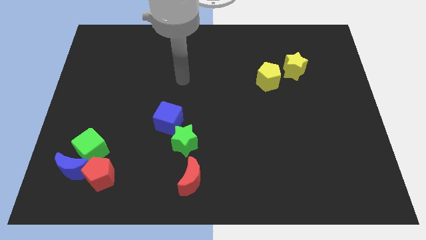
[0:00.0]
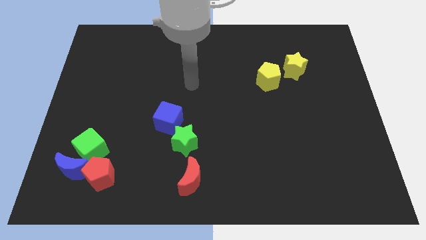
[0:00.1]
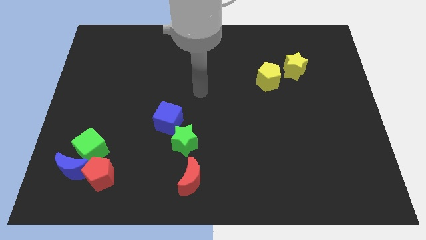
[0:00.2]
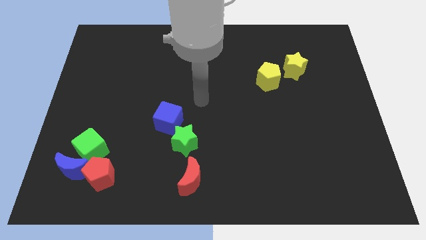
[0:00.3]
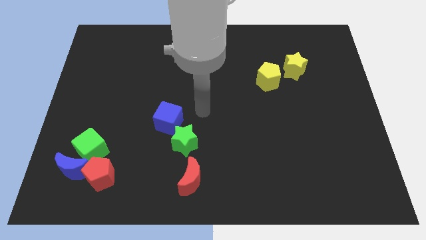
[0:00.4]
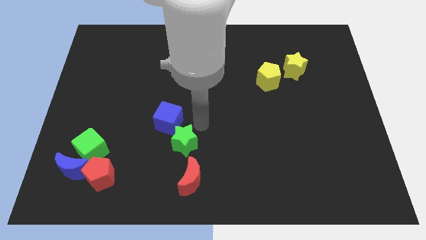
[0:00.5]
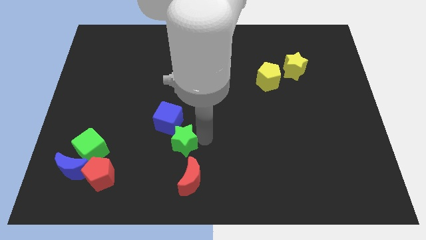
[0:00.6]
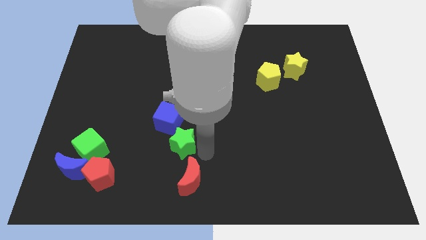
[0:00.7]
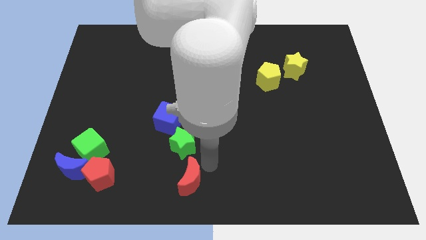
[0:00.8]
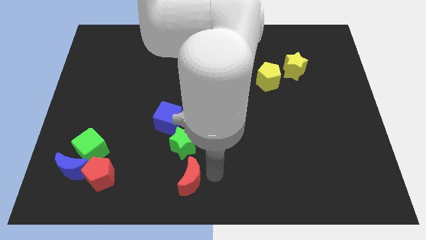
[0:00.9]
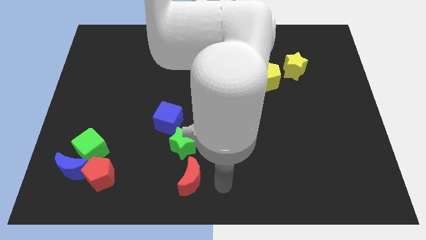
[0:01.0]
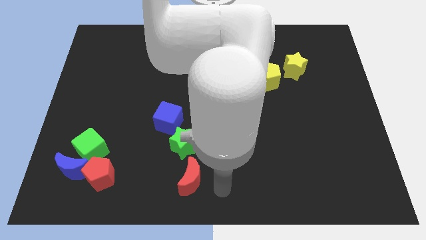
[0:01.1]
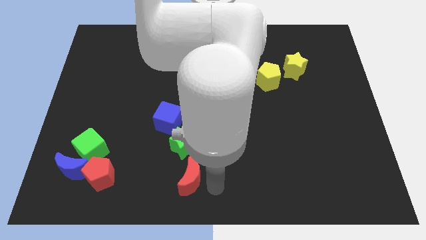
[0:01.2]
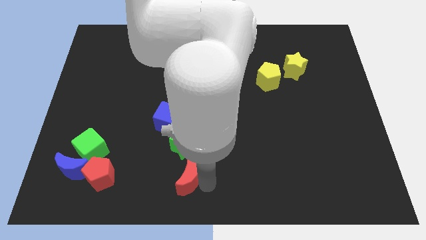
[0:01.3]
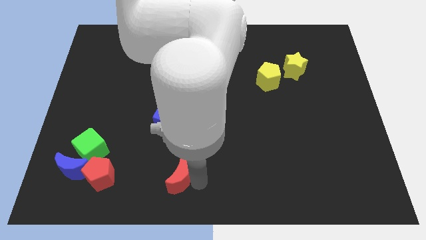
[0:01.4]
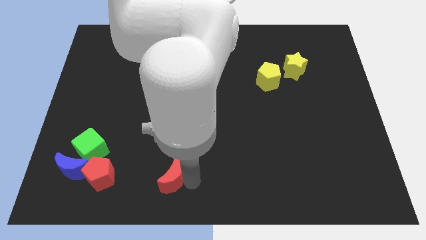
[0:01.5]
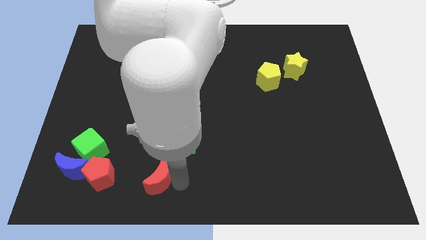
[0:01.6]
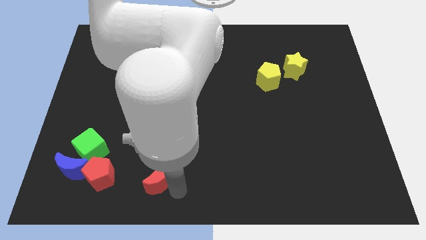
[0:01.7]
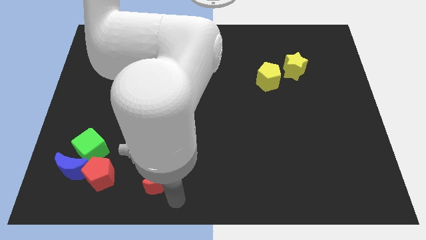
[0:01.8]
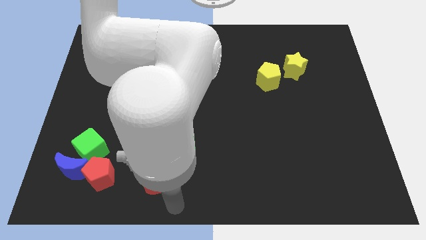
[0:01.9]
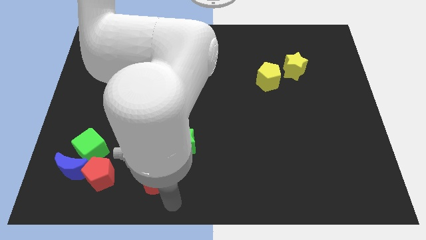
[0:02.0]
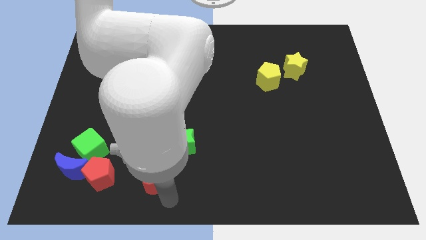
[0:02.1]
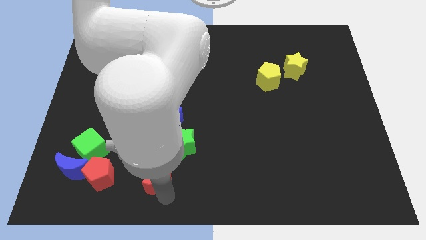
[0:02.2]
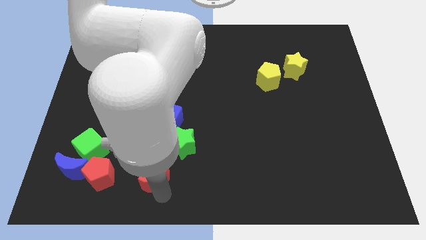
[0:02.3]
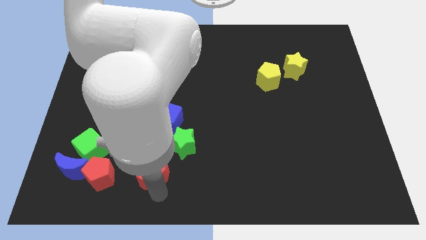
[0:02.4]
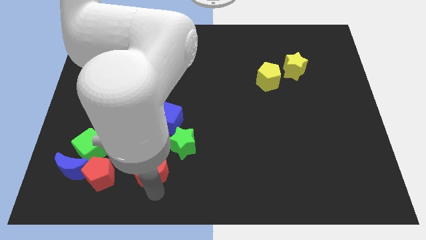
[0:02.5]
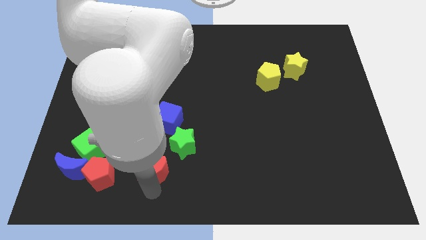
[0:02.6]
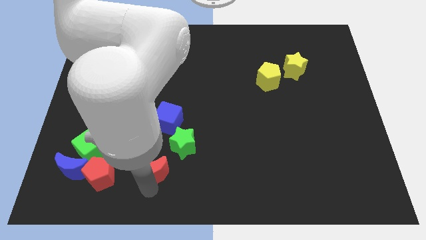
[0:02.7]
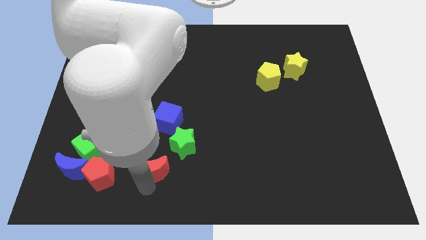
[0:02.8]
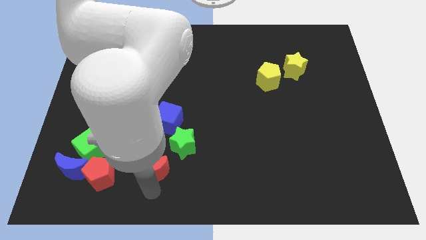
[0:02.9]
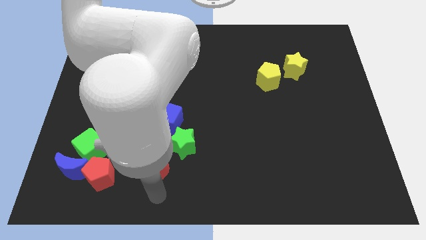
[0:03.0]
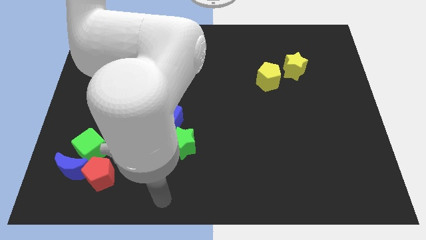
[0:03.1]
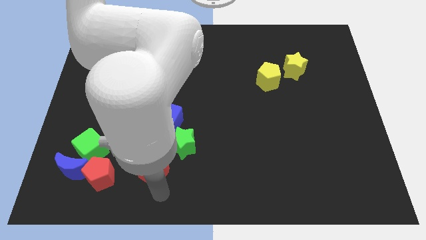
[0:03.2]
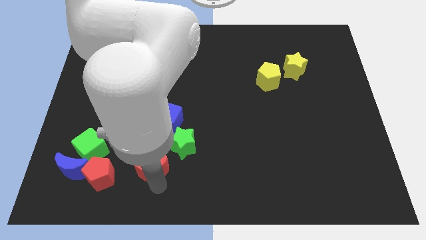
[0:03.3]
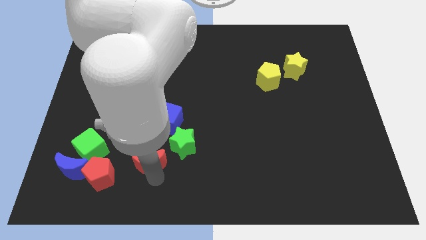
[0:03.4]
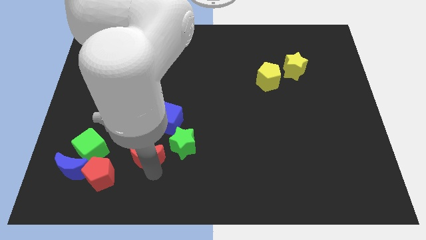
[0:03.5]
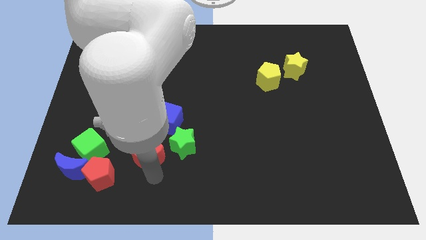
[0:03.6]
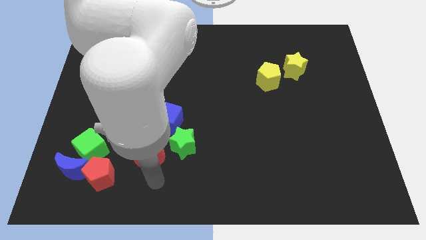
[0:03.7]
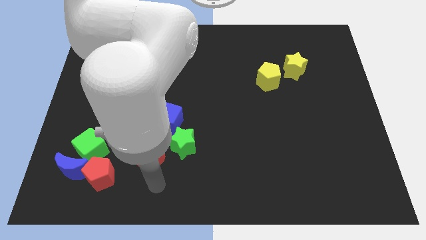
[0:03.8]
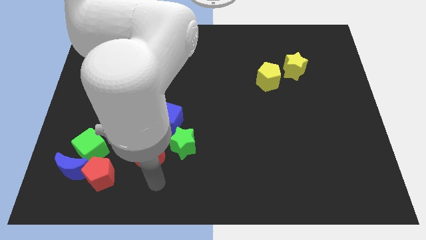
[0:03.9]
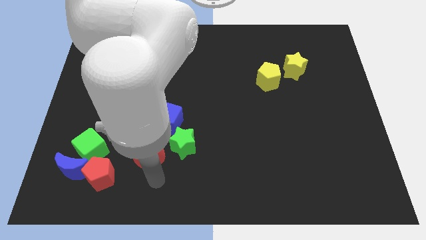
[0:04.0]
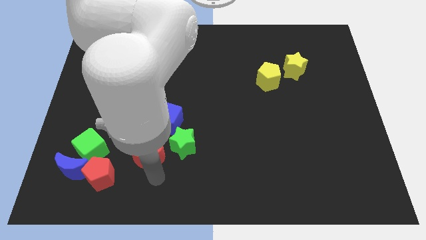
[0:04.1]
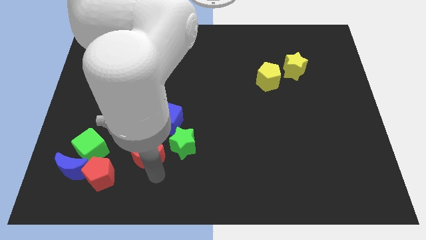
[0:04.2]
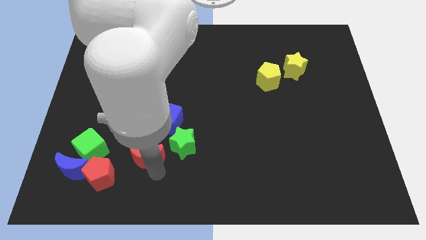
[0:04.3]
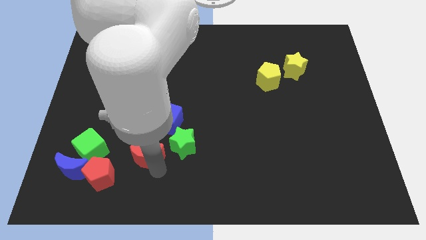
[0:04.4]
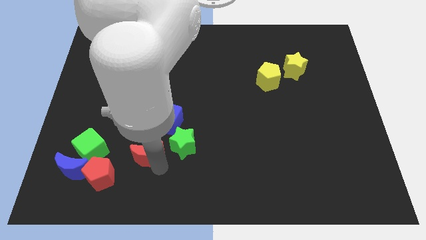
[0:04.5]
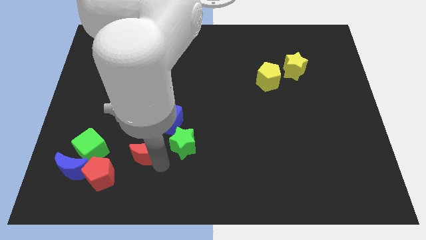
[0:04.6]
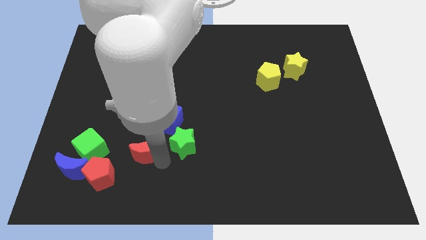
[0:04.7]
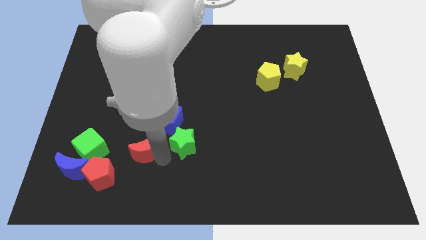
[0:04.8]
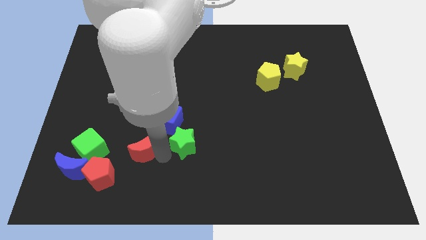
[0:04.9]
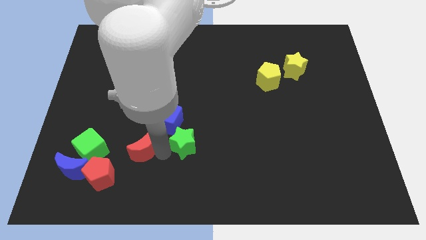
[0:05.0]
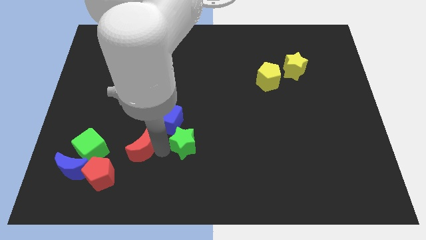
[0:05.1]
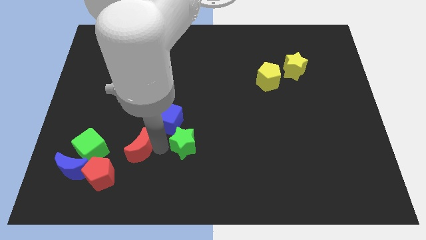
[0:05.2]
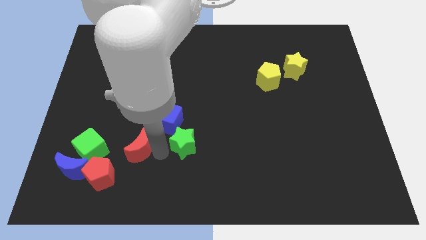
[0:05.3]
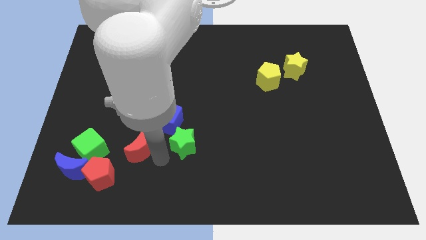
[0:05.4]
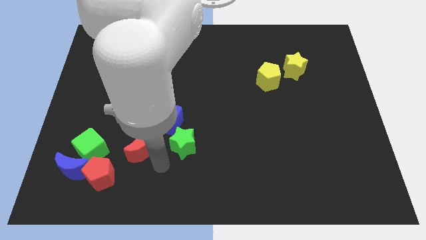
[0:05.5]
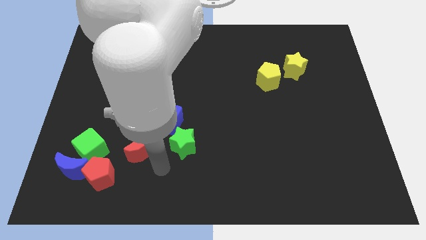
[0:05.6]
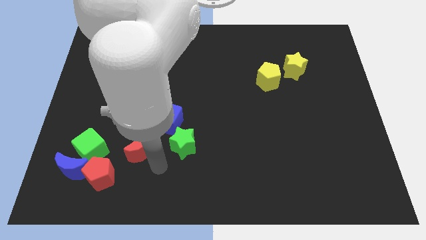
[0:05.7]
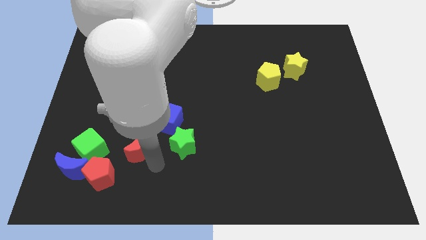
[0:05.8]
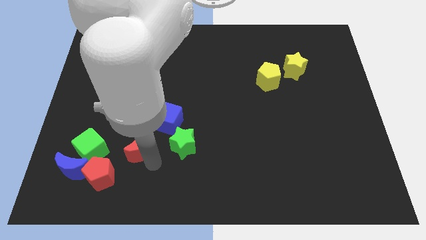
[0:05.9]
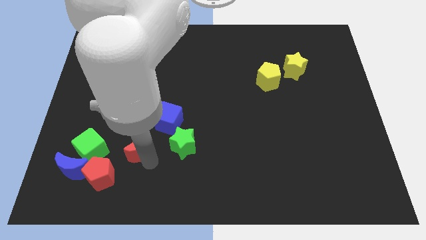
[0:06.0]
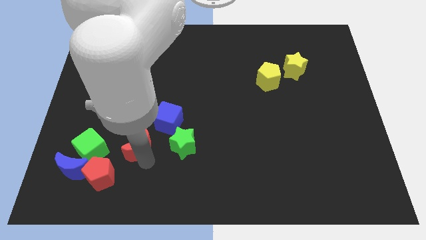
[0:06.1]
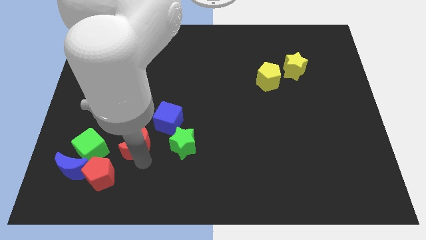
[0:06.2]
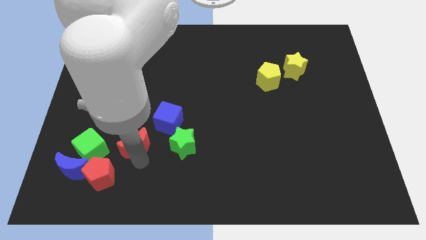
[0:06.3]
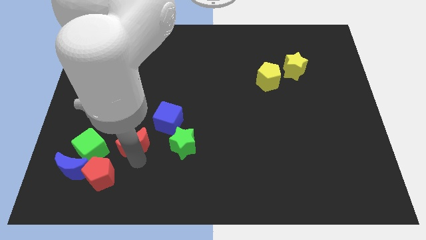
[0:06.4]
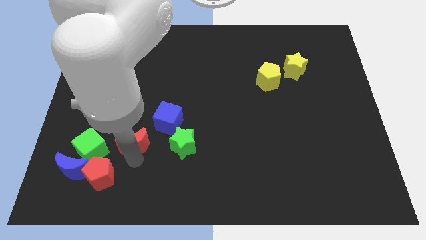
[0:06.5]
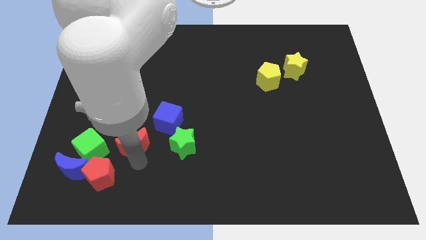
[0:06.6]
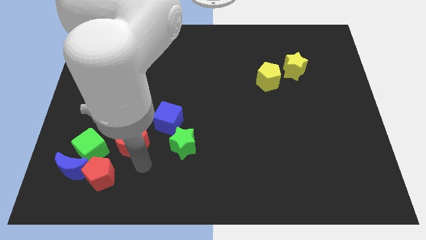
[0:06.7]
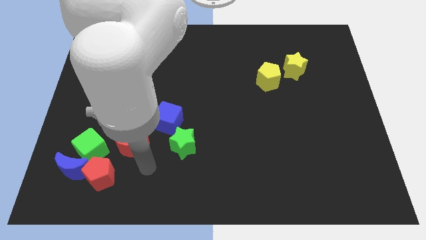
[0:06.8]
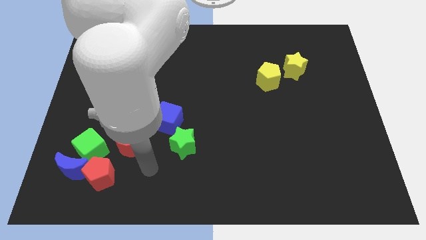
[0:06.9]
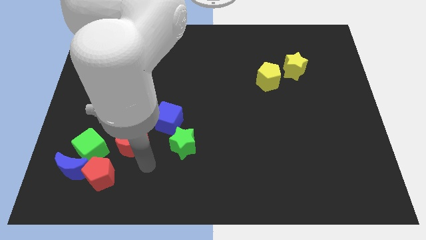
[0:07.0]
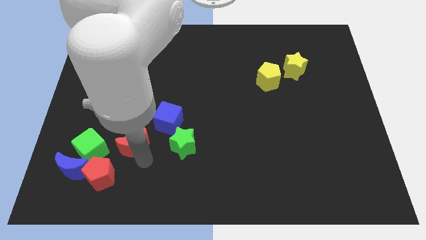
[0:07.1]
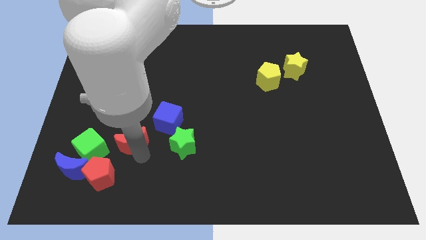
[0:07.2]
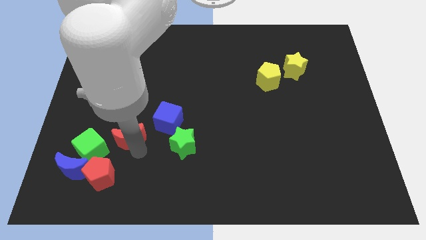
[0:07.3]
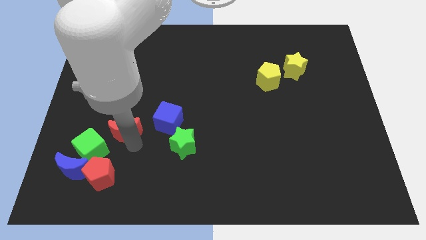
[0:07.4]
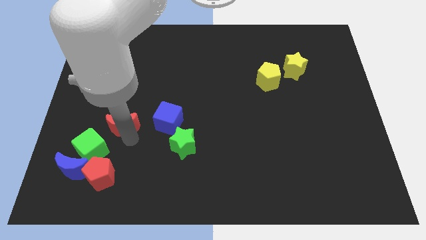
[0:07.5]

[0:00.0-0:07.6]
slide the red moon diagonally up and to the left

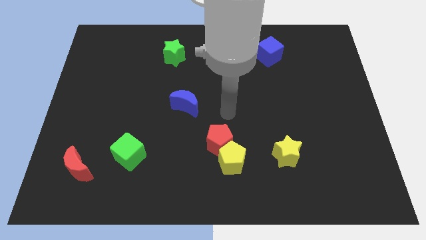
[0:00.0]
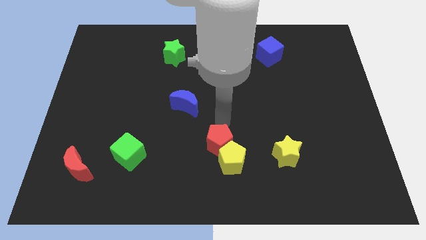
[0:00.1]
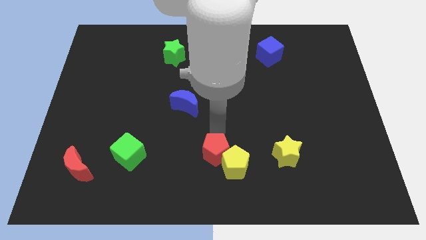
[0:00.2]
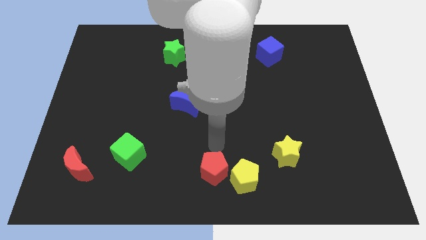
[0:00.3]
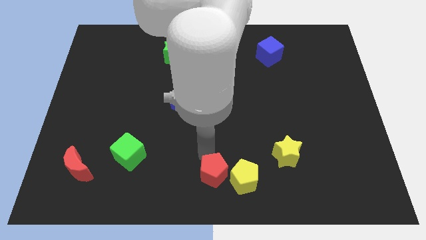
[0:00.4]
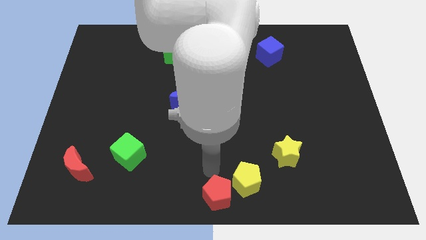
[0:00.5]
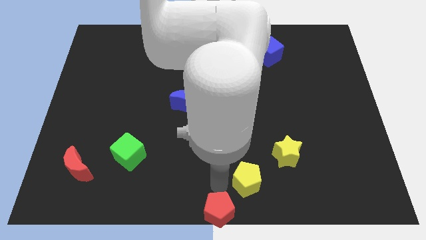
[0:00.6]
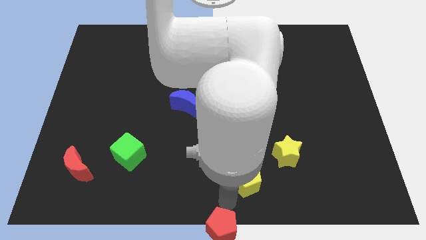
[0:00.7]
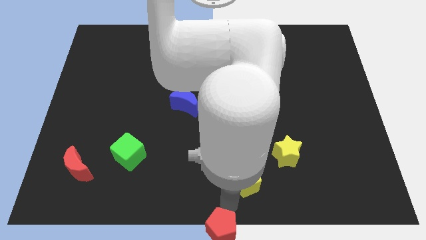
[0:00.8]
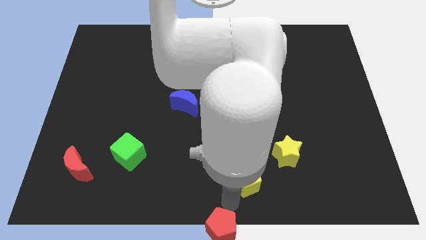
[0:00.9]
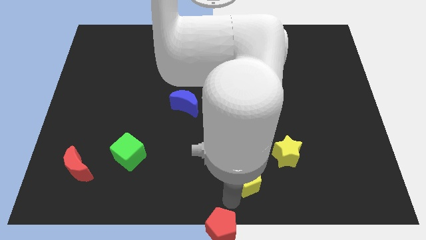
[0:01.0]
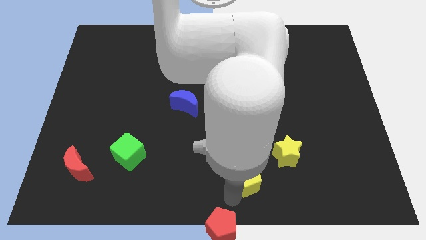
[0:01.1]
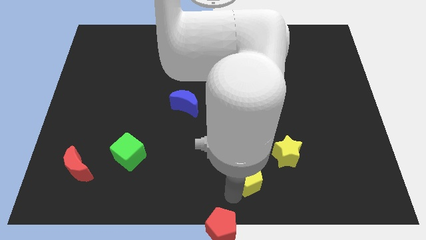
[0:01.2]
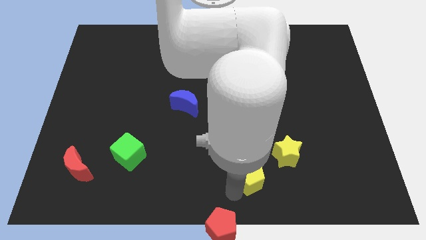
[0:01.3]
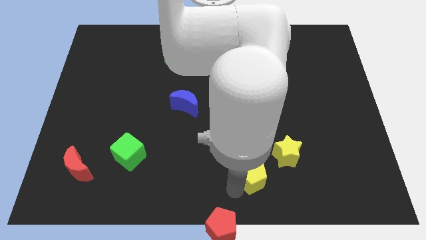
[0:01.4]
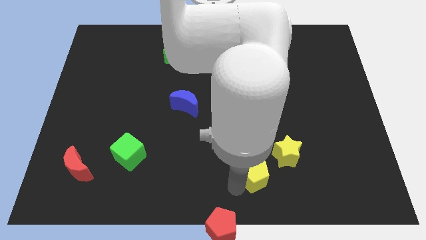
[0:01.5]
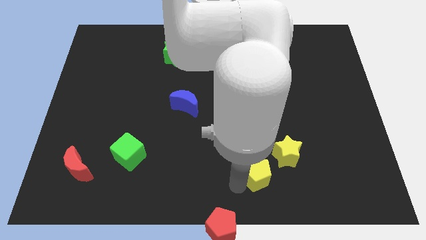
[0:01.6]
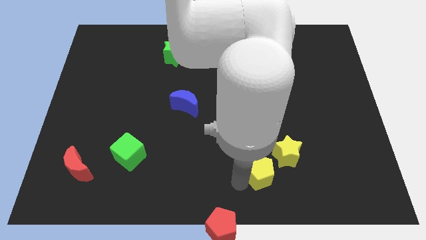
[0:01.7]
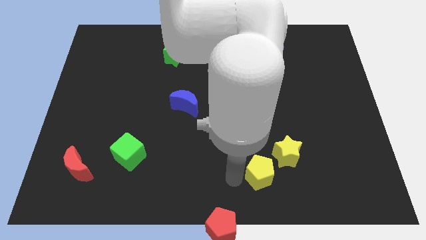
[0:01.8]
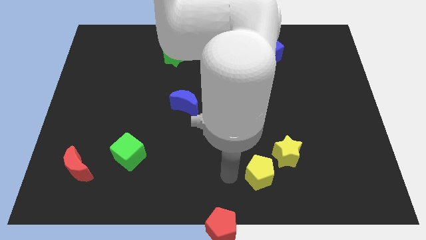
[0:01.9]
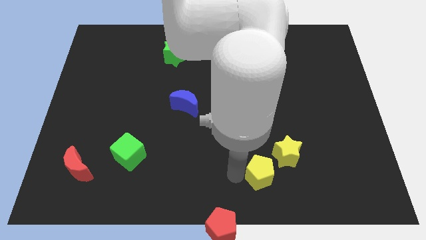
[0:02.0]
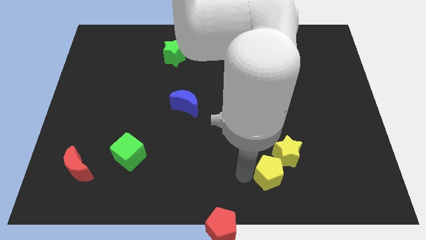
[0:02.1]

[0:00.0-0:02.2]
move the yellow pentagon right somewhat
